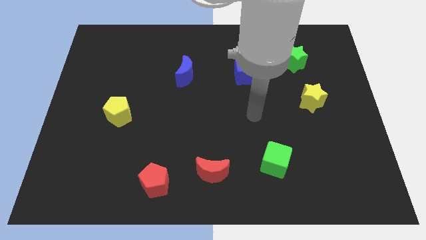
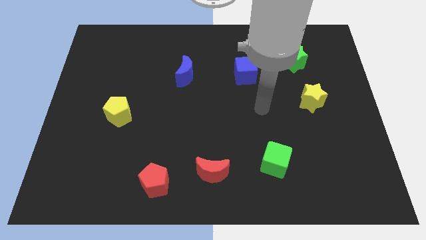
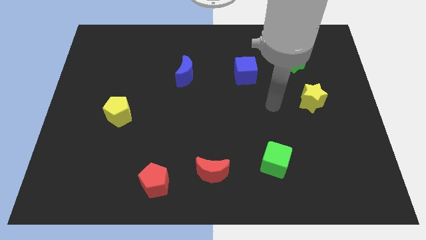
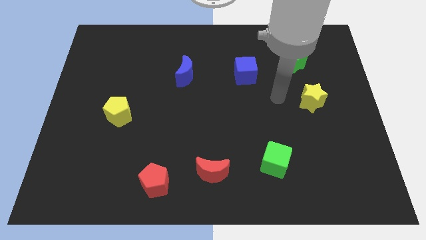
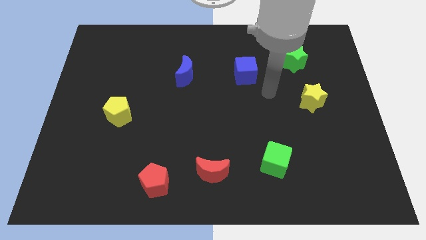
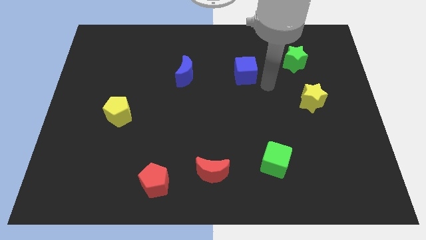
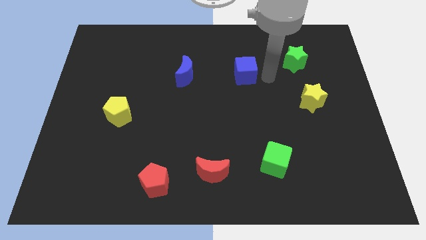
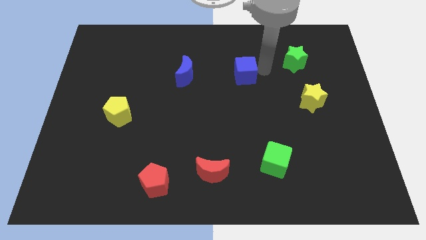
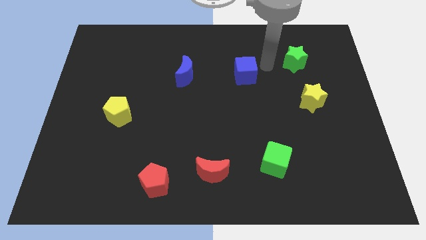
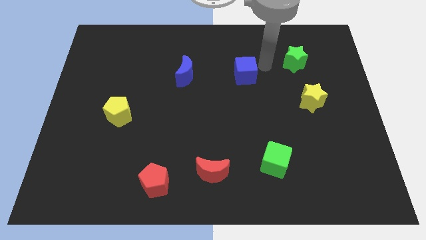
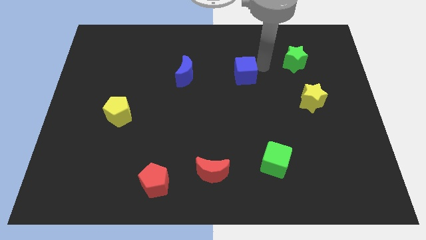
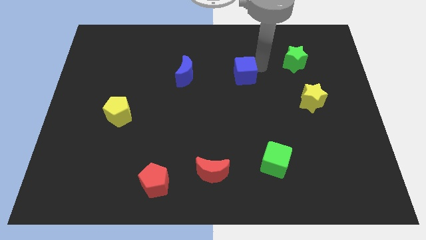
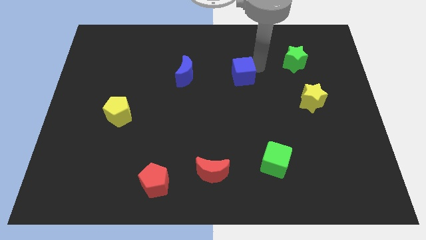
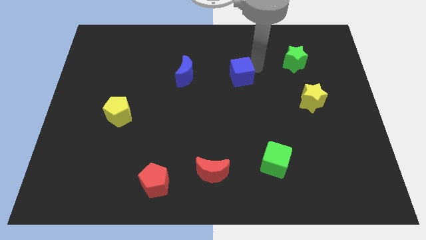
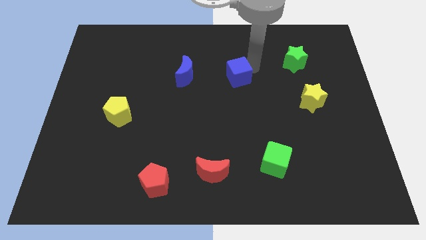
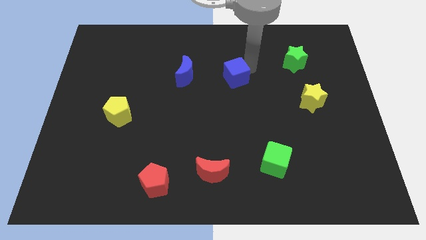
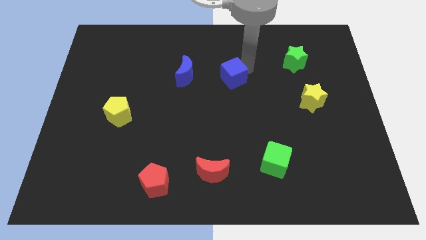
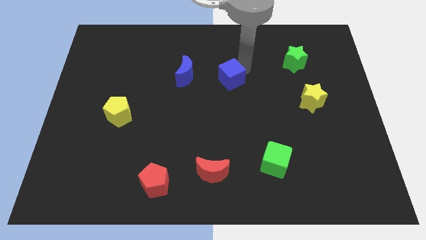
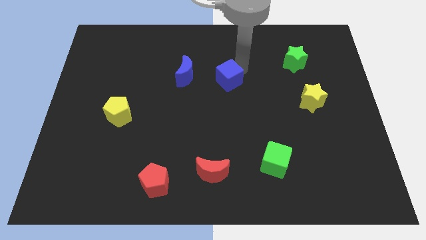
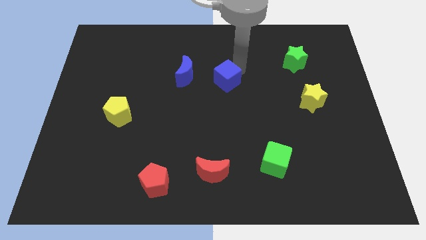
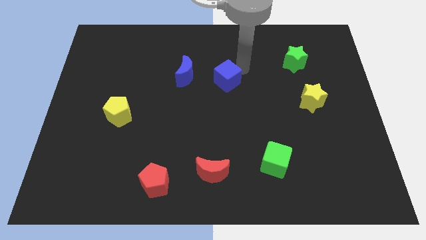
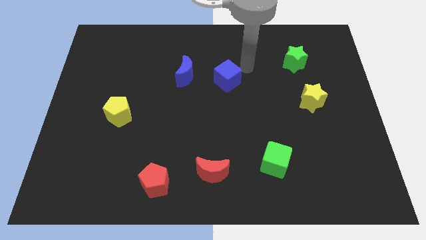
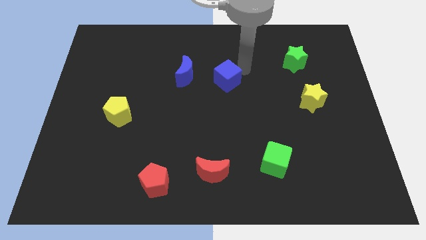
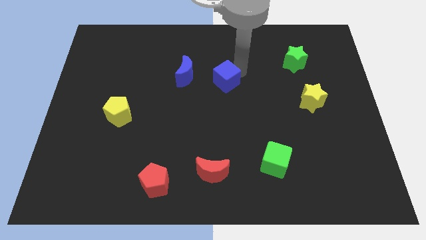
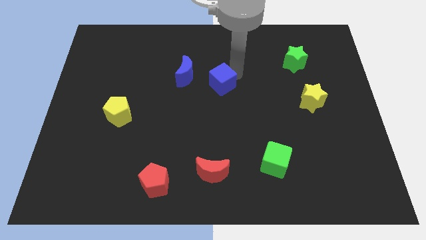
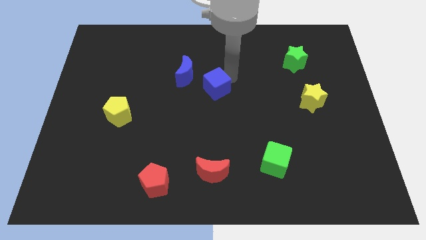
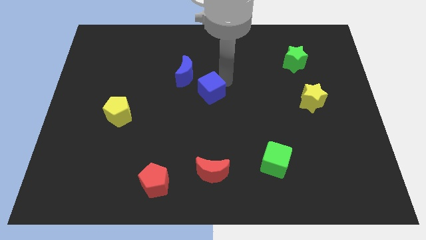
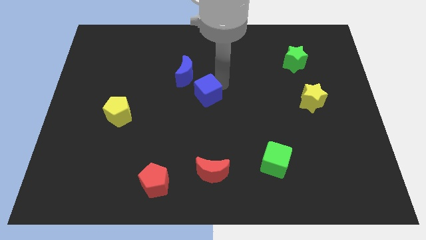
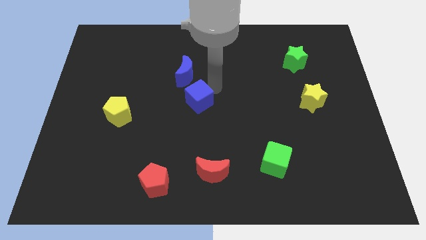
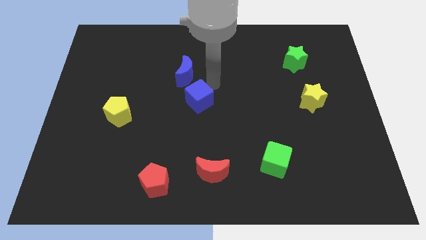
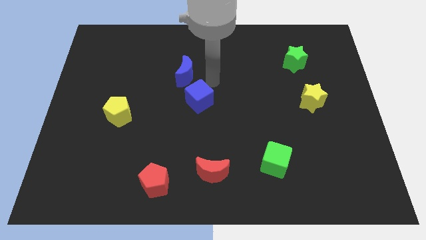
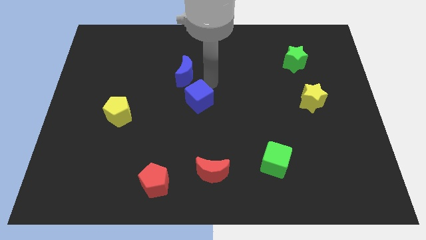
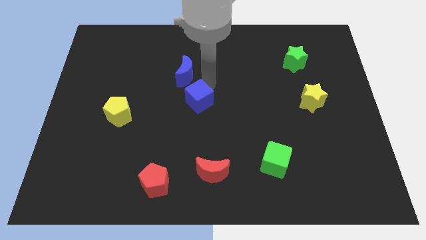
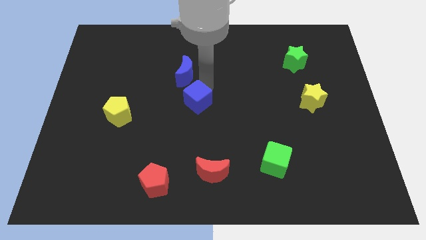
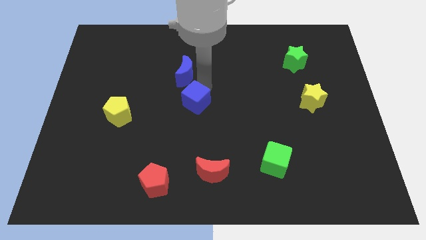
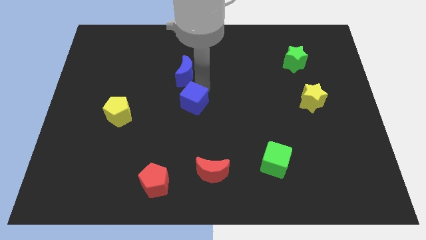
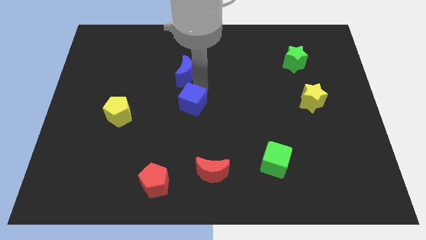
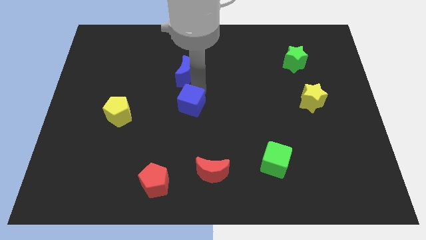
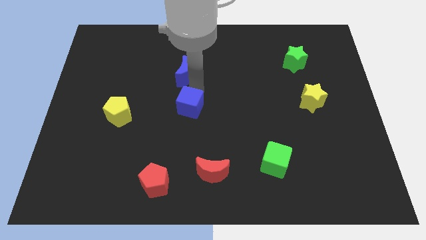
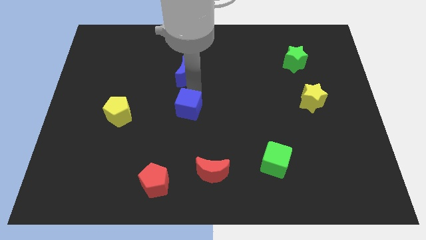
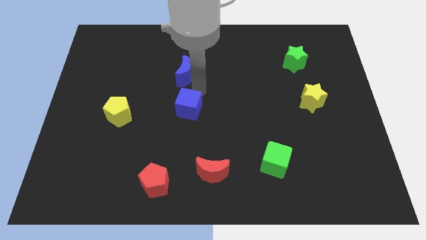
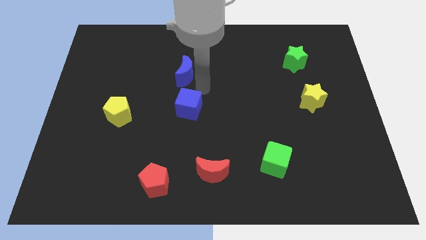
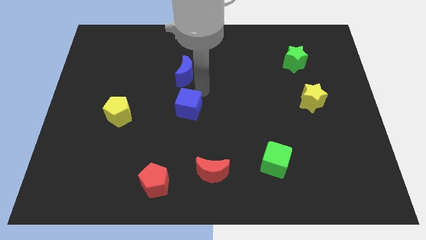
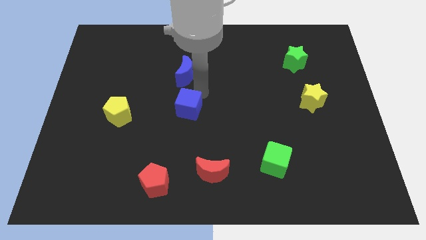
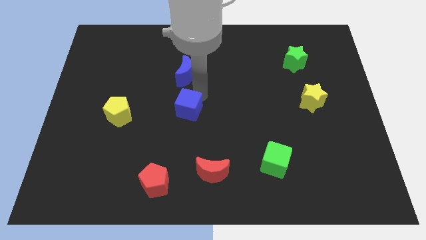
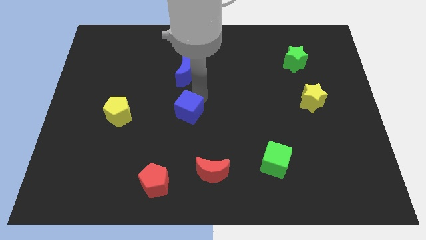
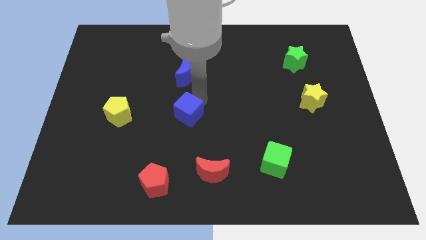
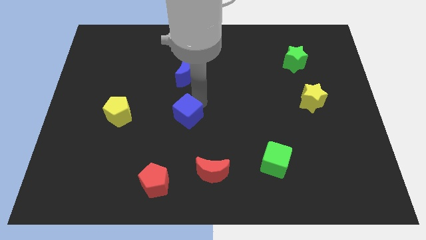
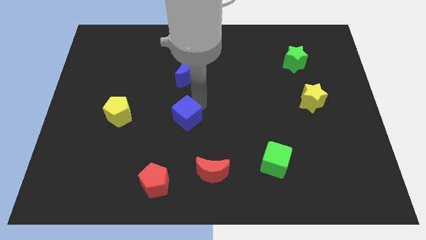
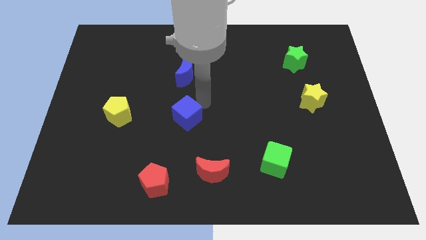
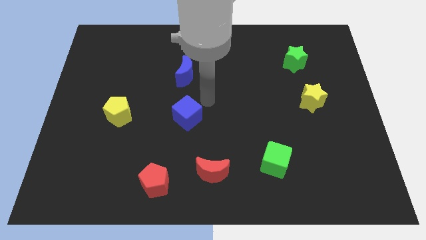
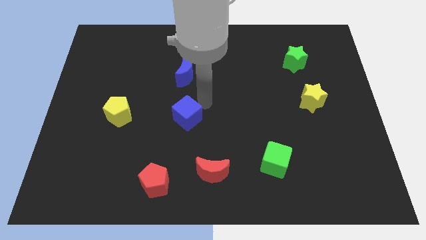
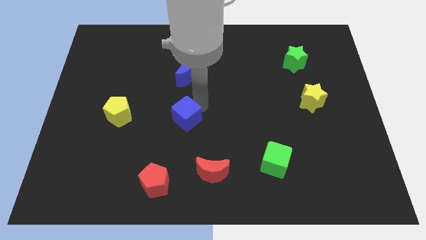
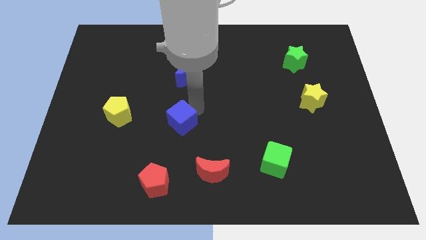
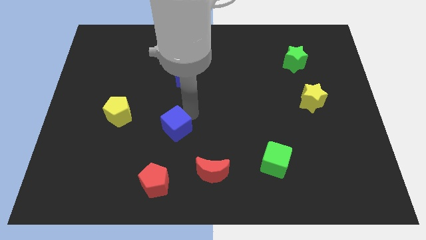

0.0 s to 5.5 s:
push the blue cube to the top side of the red pentagon

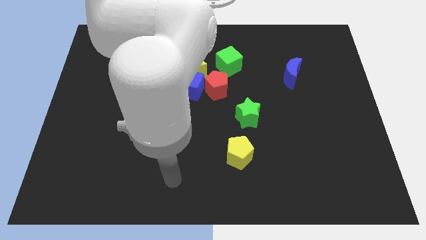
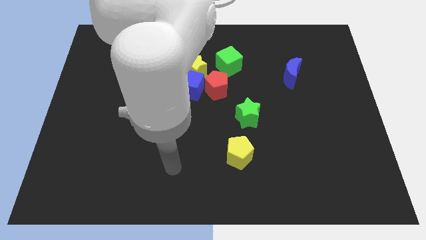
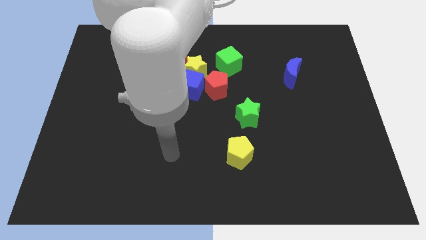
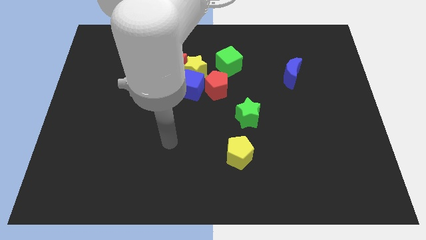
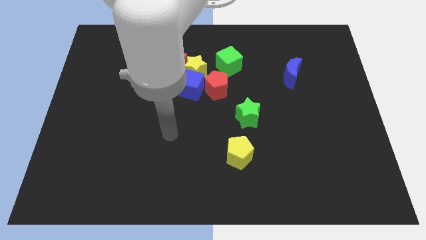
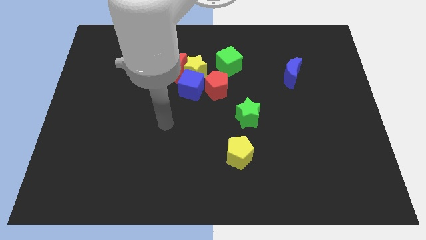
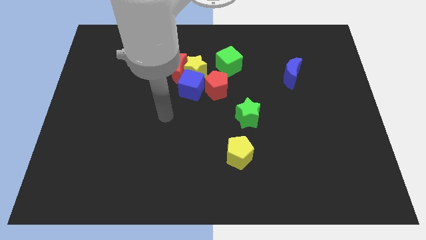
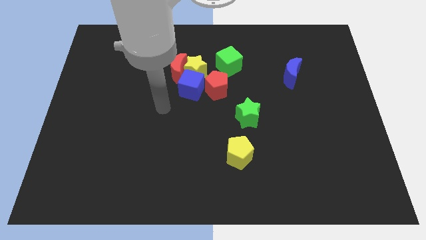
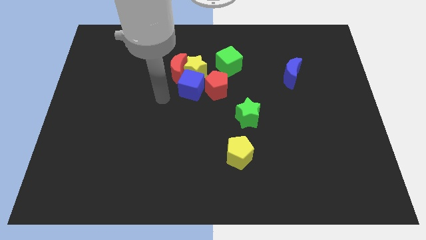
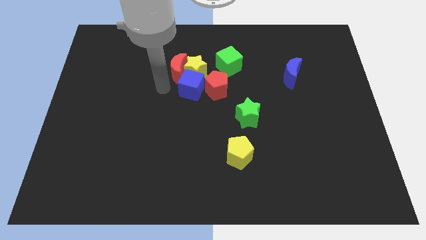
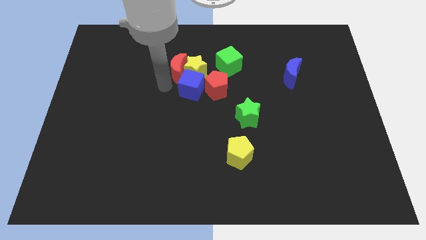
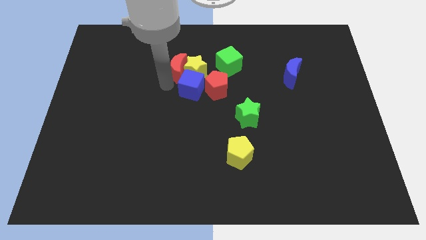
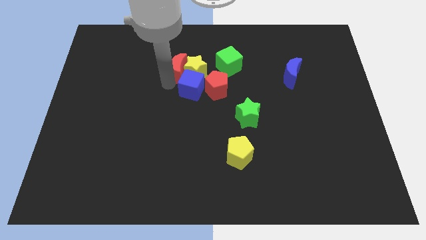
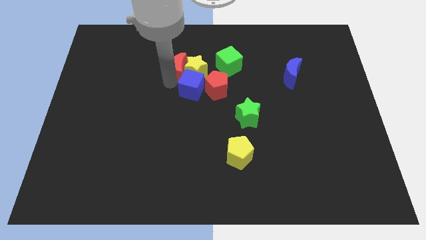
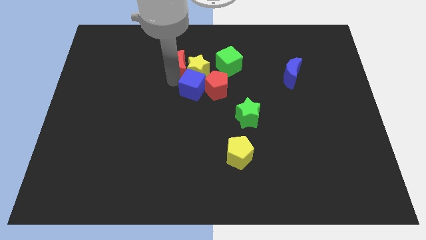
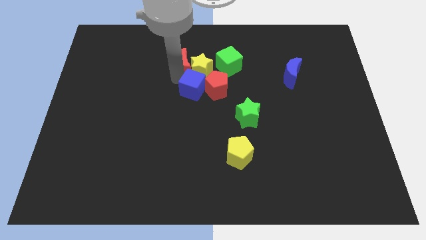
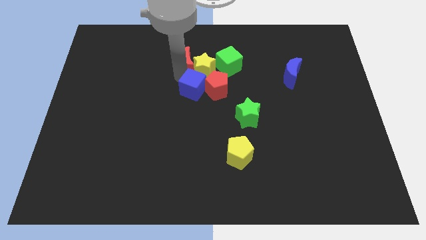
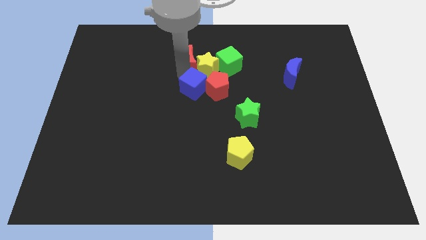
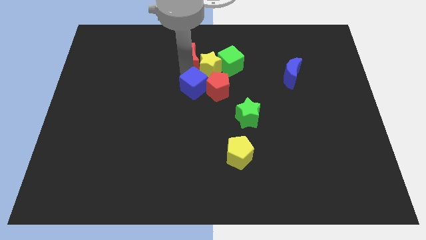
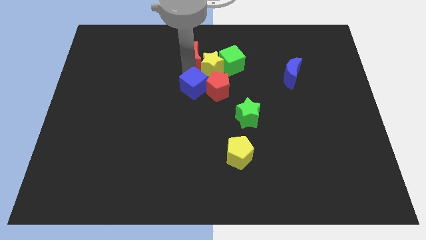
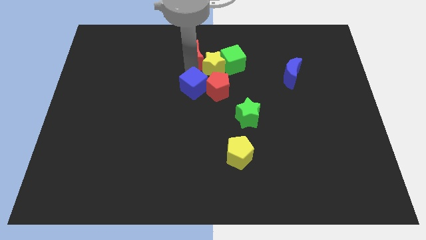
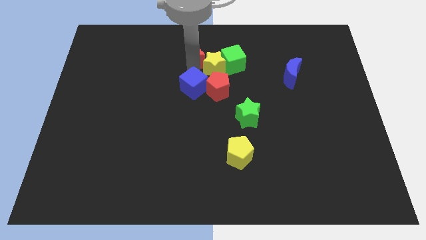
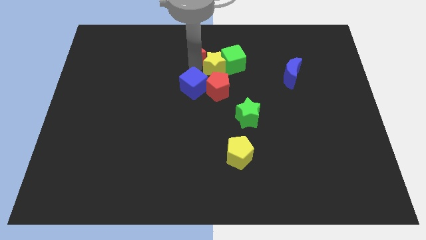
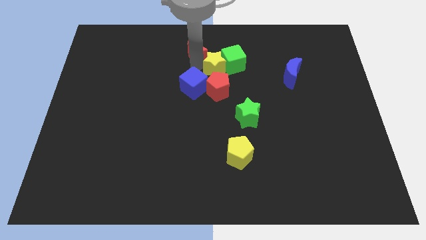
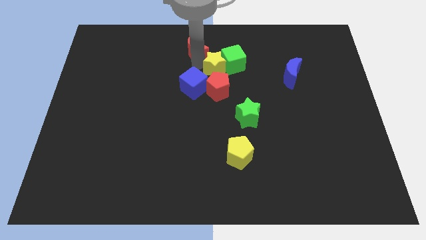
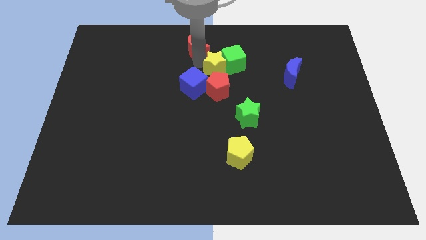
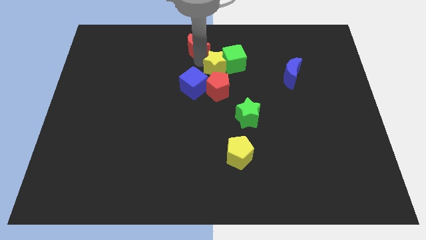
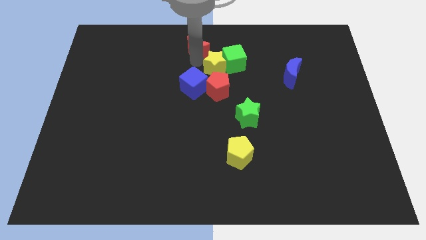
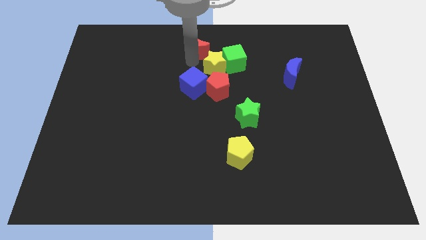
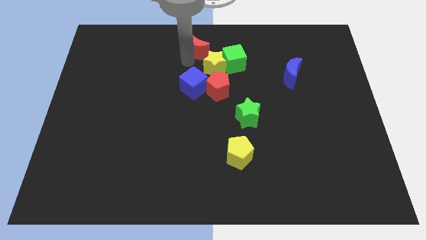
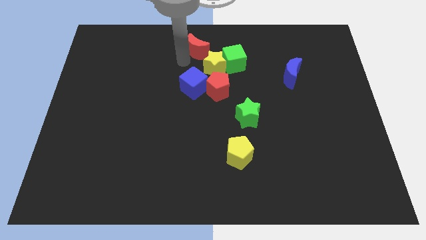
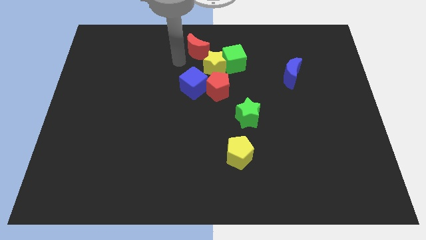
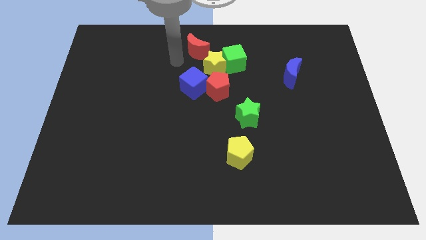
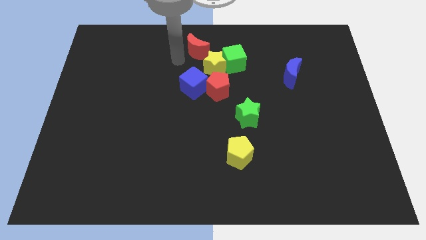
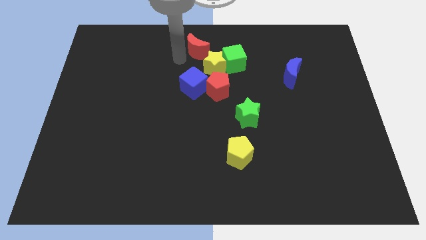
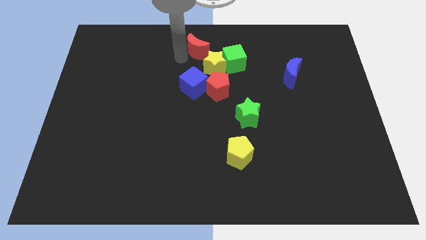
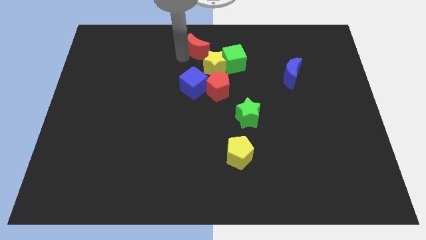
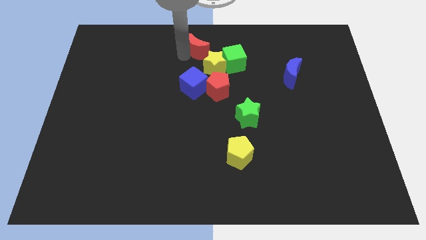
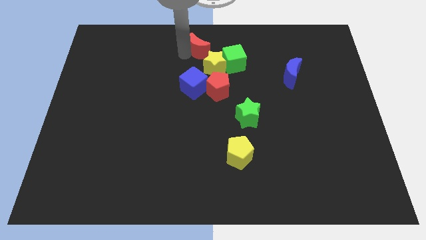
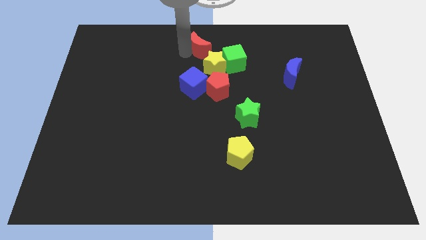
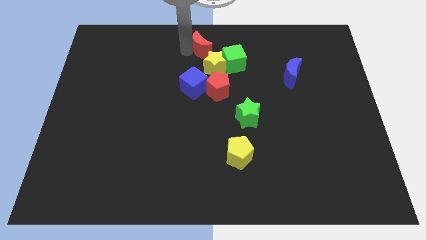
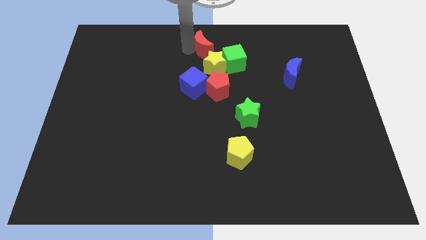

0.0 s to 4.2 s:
slide the red moon above the red pentagon
